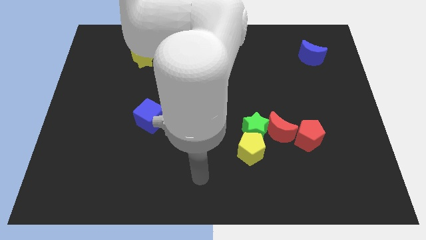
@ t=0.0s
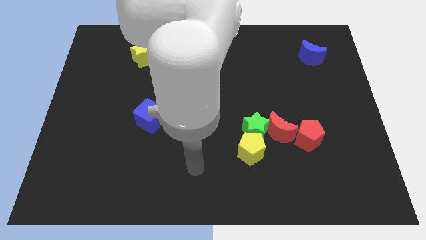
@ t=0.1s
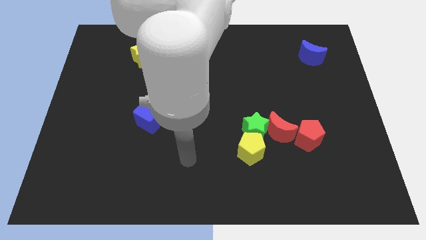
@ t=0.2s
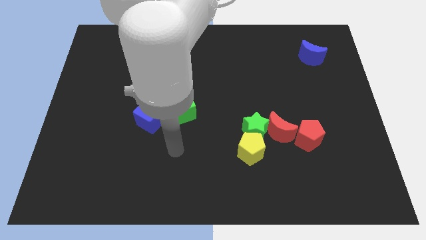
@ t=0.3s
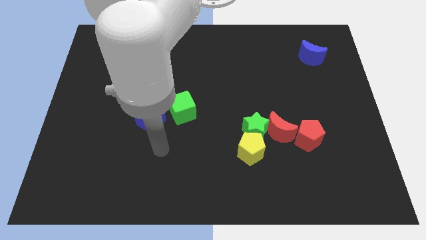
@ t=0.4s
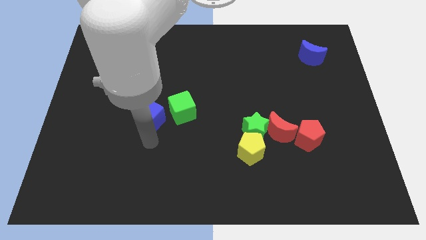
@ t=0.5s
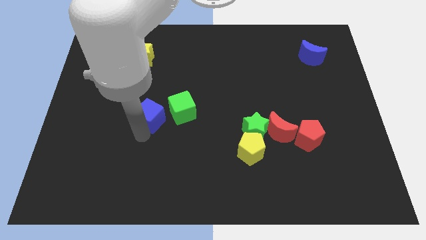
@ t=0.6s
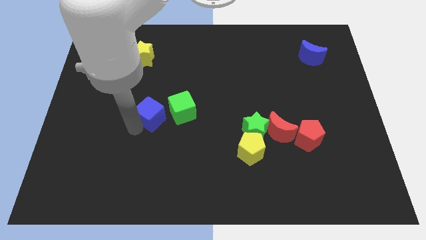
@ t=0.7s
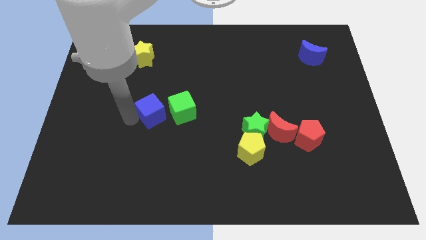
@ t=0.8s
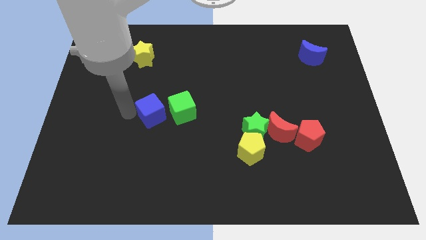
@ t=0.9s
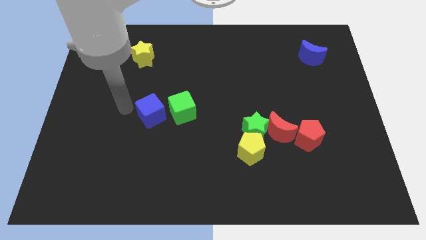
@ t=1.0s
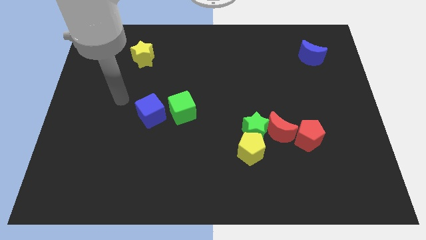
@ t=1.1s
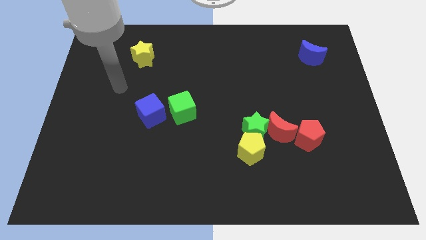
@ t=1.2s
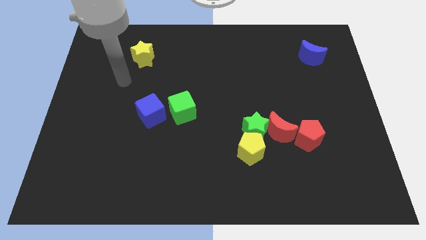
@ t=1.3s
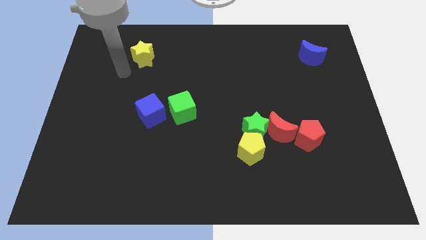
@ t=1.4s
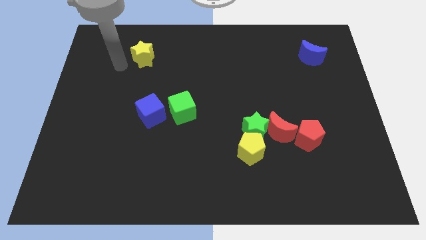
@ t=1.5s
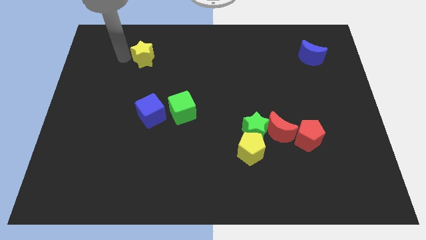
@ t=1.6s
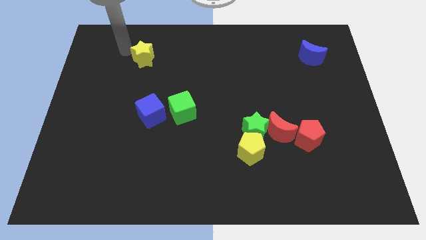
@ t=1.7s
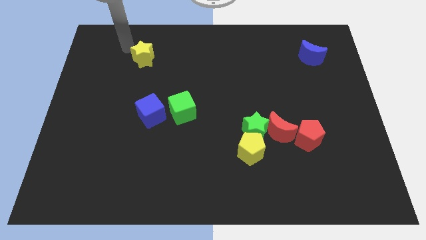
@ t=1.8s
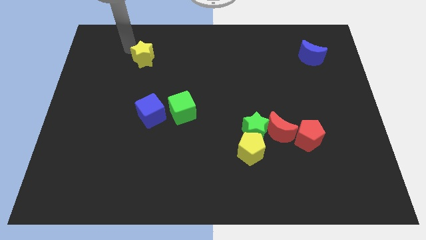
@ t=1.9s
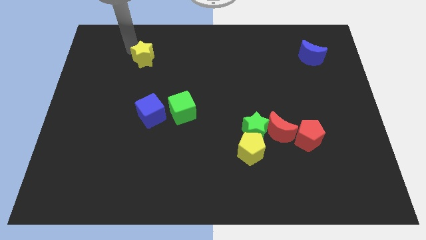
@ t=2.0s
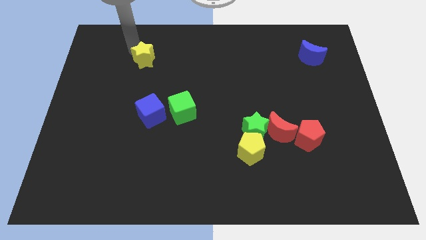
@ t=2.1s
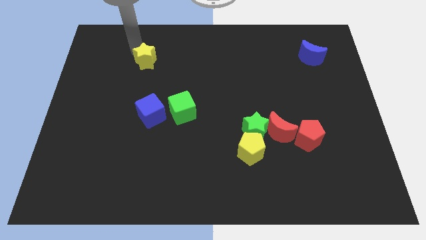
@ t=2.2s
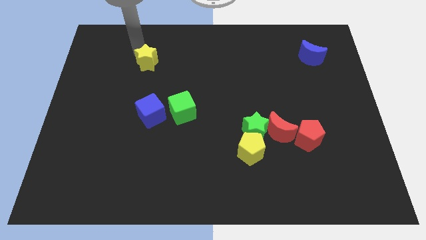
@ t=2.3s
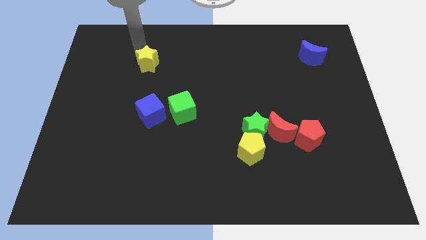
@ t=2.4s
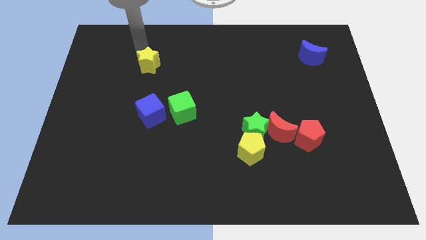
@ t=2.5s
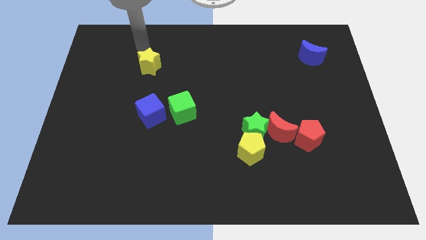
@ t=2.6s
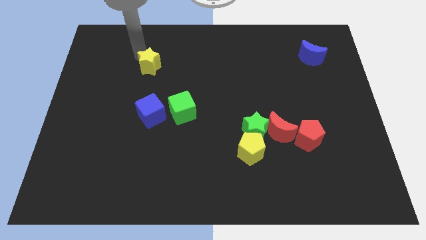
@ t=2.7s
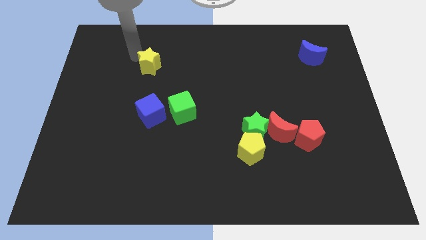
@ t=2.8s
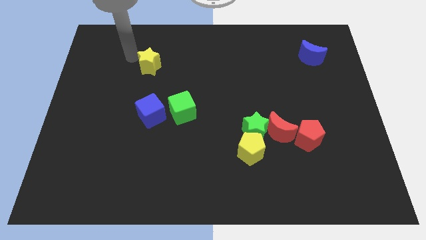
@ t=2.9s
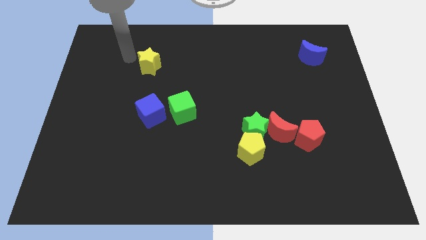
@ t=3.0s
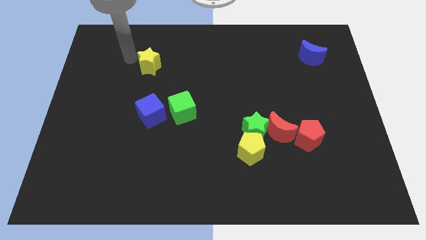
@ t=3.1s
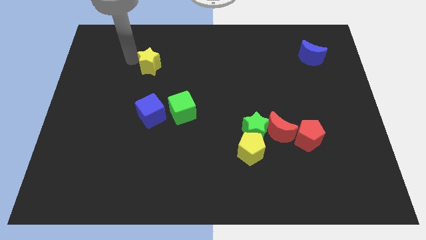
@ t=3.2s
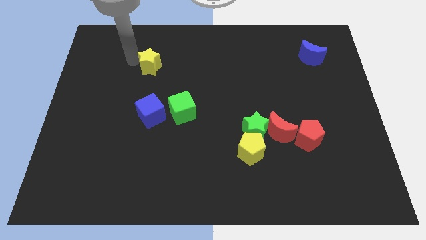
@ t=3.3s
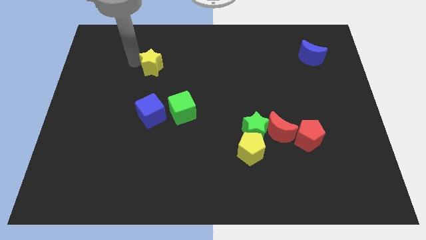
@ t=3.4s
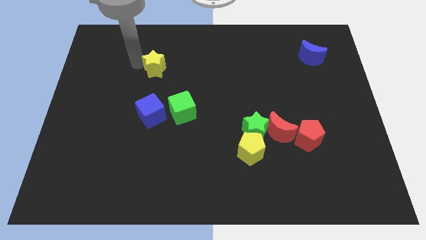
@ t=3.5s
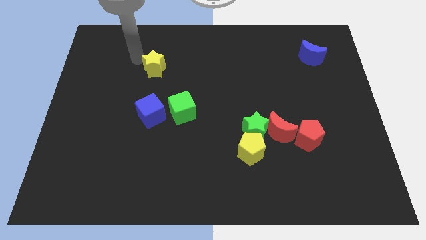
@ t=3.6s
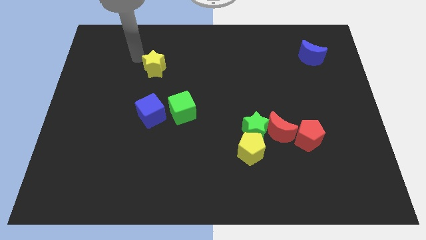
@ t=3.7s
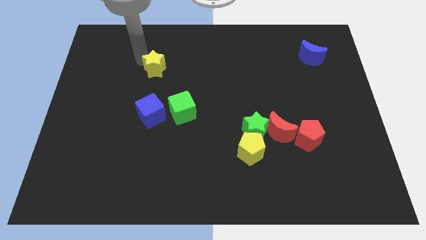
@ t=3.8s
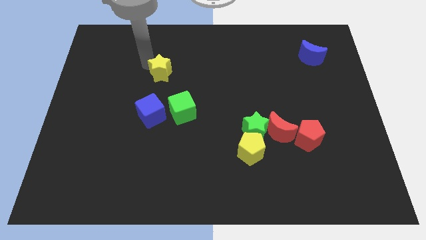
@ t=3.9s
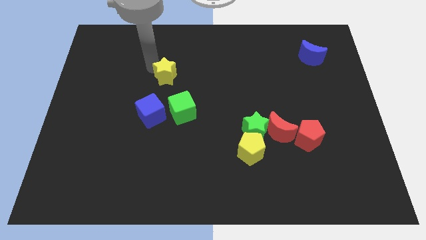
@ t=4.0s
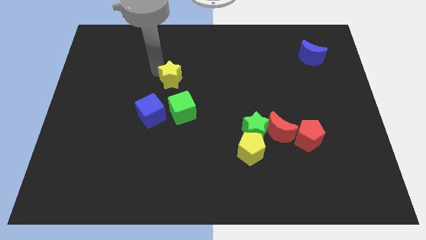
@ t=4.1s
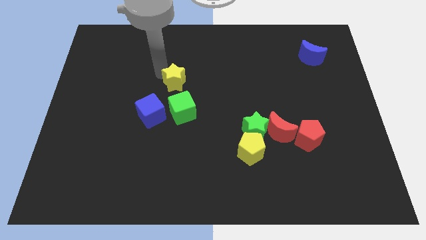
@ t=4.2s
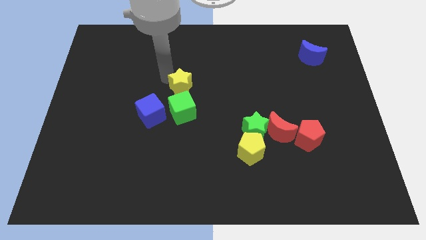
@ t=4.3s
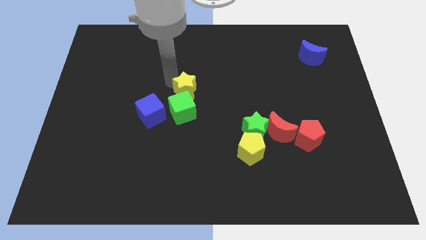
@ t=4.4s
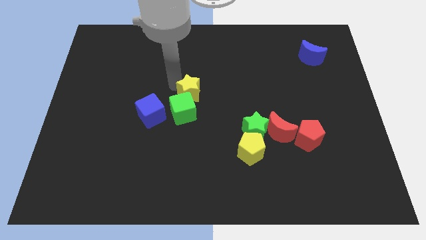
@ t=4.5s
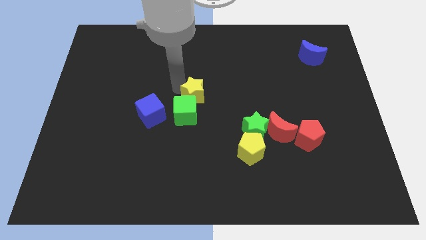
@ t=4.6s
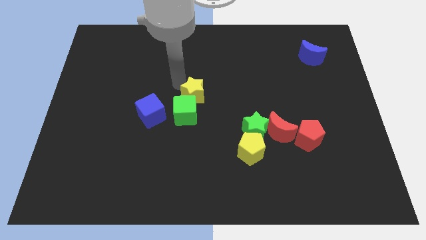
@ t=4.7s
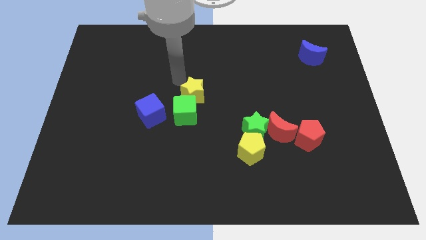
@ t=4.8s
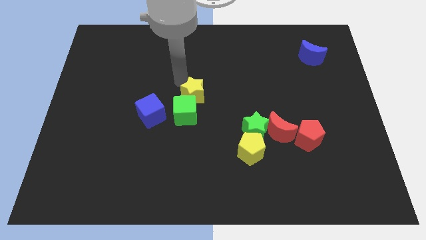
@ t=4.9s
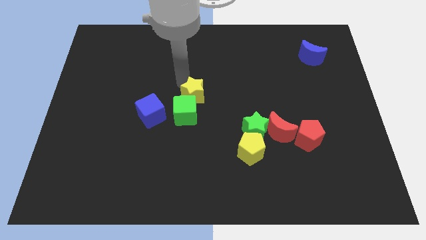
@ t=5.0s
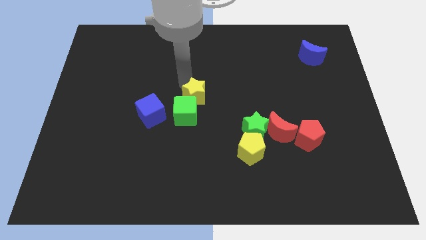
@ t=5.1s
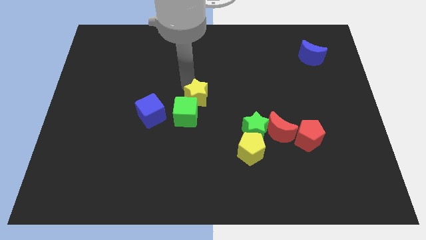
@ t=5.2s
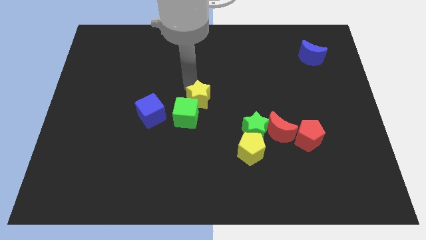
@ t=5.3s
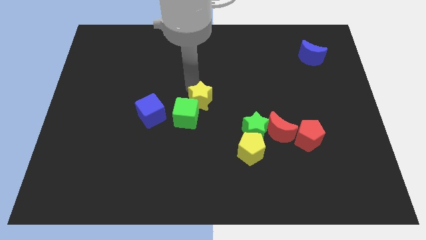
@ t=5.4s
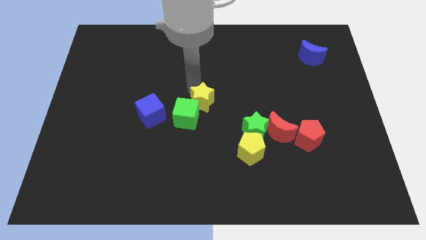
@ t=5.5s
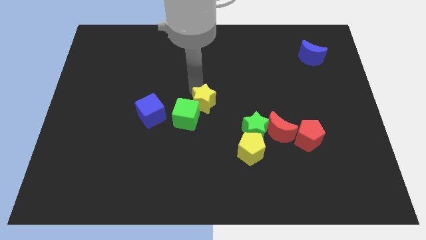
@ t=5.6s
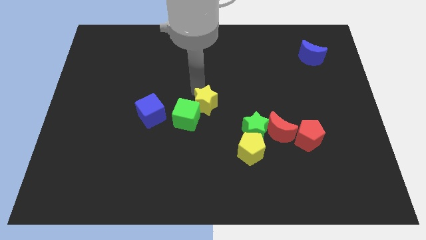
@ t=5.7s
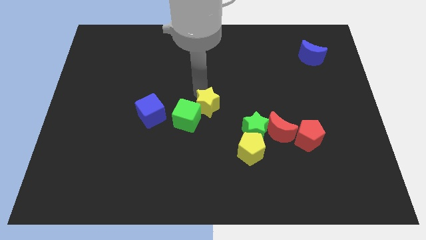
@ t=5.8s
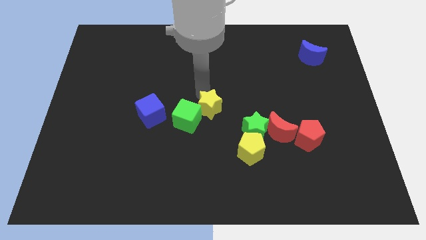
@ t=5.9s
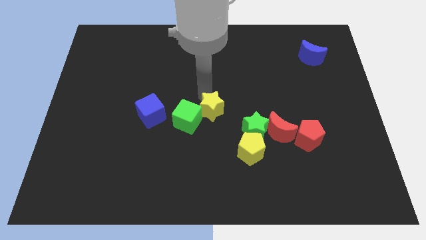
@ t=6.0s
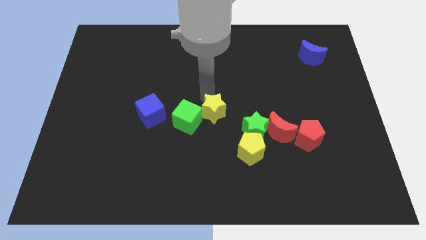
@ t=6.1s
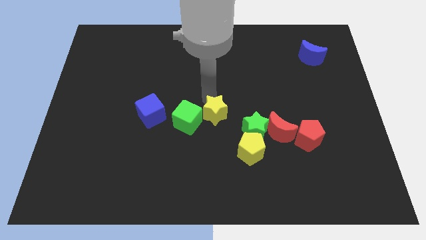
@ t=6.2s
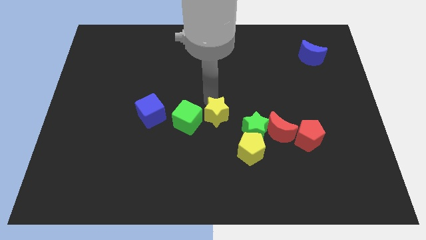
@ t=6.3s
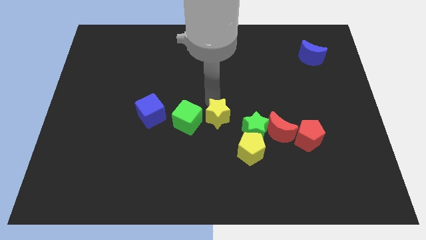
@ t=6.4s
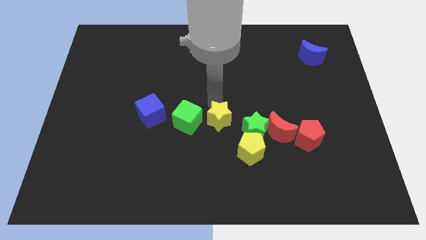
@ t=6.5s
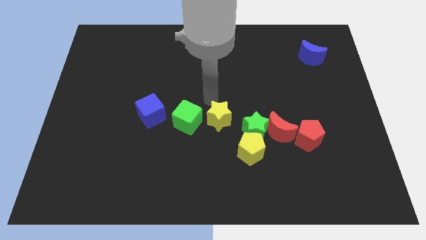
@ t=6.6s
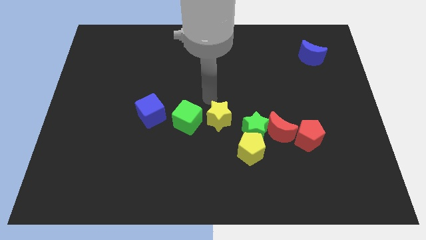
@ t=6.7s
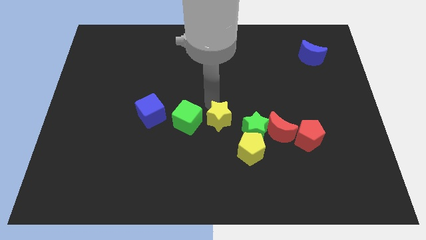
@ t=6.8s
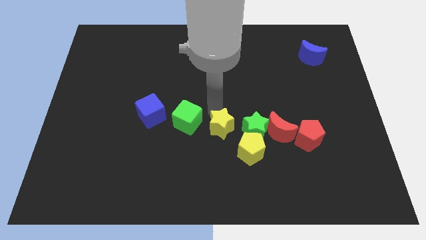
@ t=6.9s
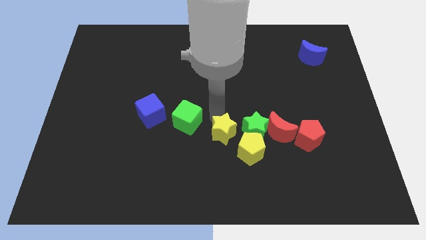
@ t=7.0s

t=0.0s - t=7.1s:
push the yellow star to the bottom left side of the green star

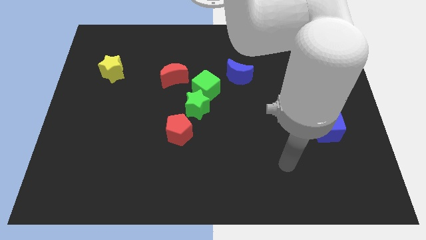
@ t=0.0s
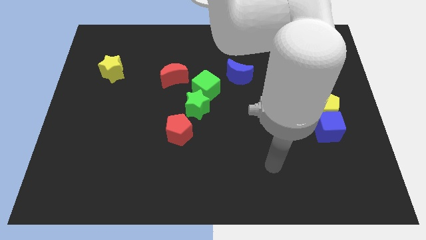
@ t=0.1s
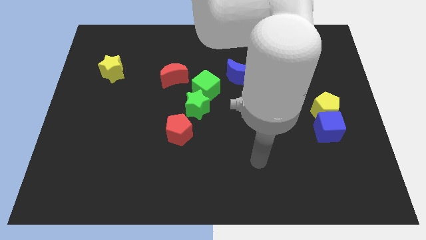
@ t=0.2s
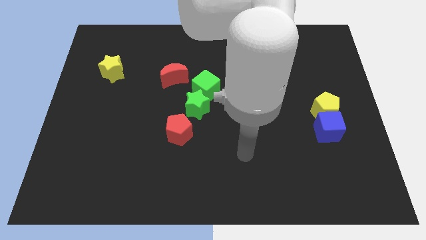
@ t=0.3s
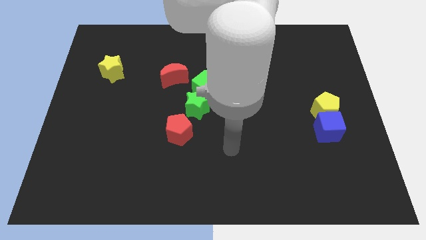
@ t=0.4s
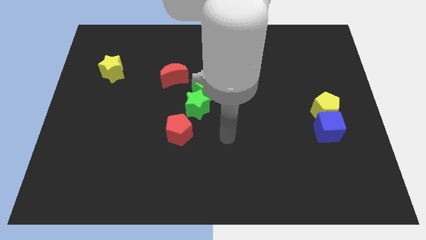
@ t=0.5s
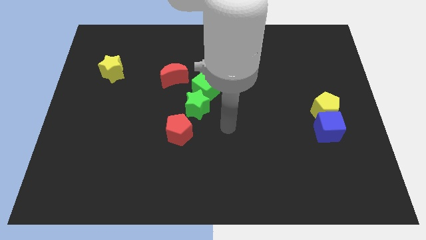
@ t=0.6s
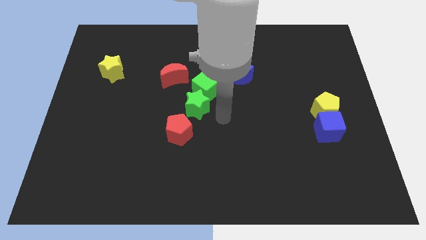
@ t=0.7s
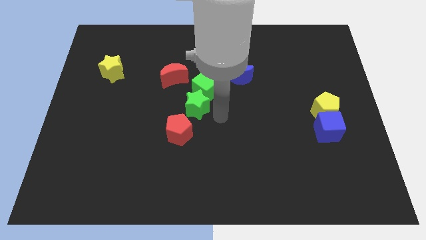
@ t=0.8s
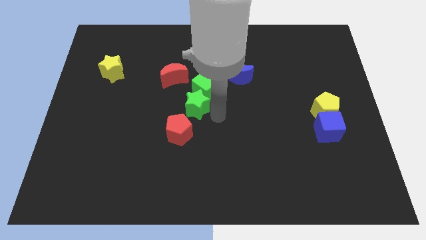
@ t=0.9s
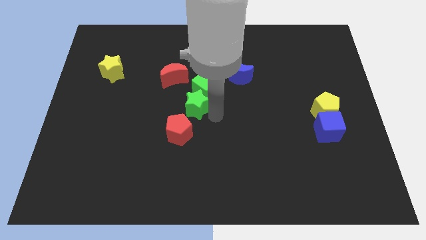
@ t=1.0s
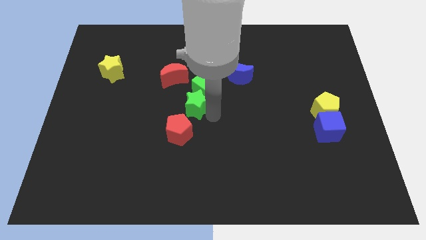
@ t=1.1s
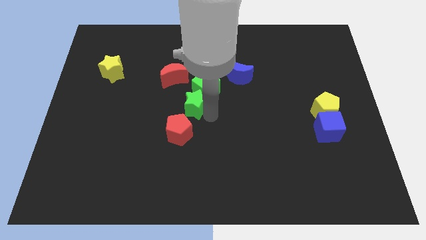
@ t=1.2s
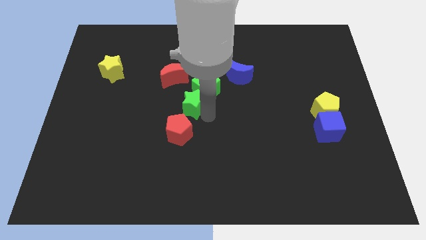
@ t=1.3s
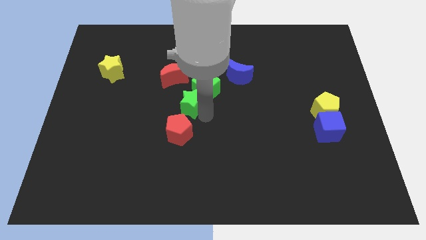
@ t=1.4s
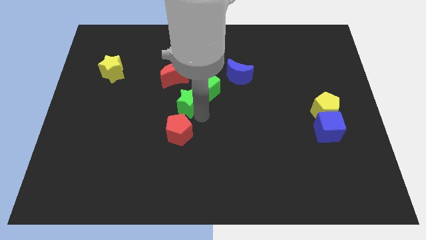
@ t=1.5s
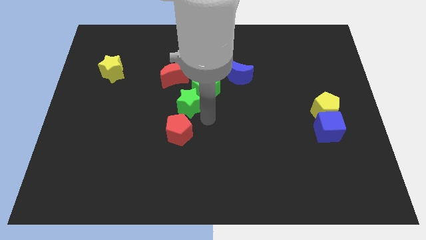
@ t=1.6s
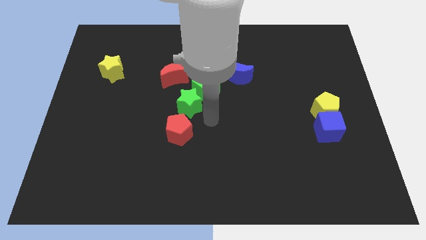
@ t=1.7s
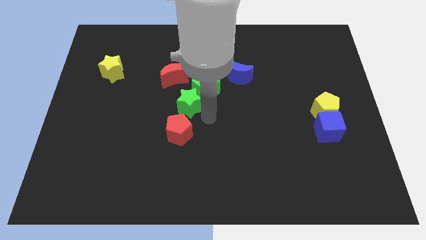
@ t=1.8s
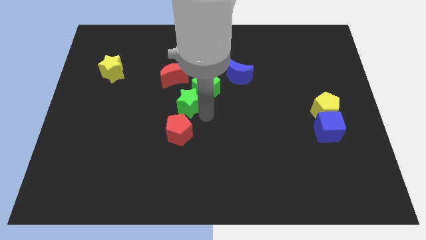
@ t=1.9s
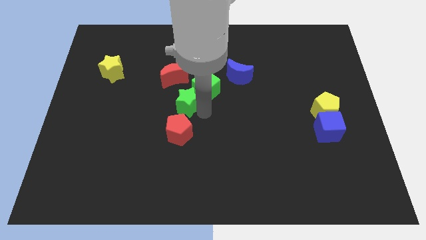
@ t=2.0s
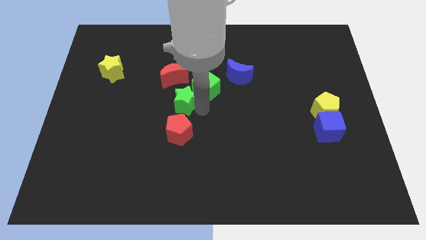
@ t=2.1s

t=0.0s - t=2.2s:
move the green star to the left side of the green cube
